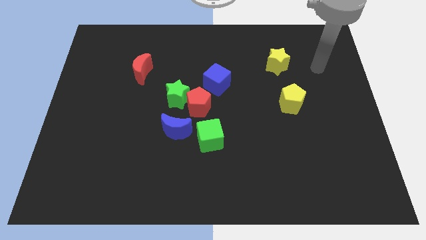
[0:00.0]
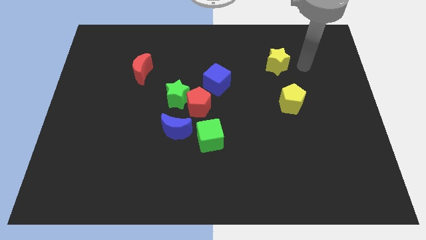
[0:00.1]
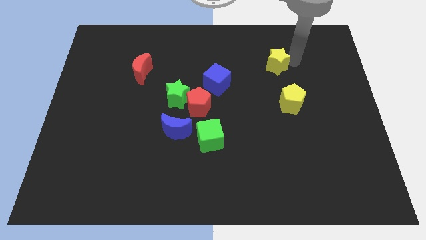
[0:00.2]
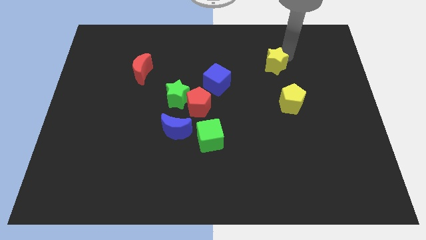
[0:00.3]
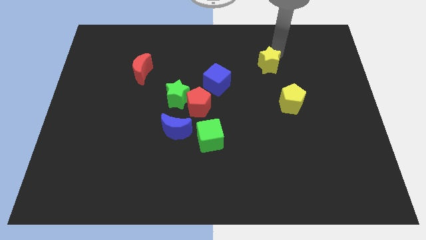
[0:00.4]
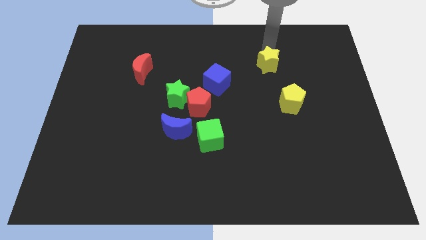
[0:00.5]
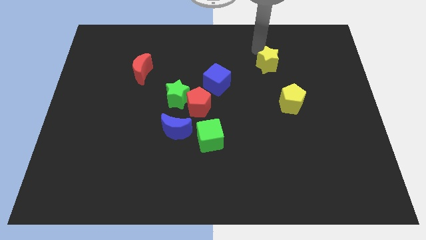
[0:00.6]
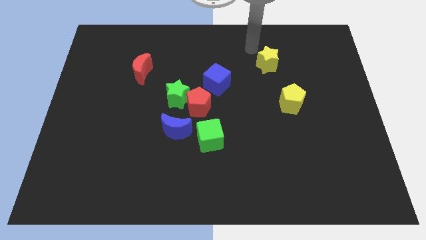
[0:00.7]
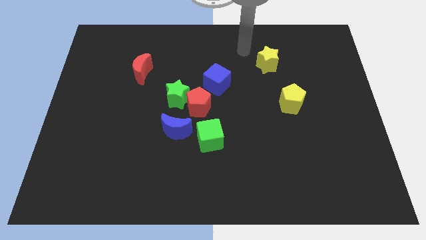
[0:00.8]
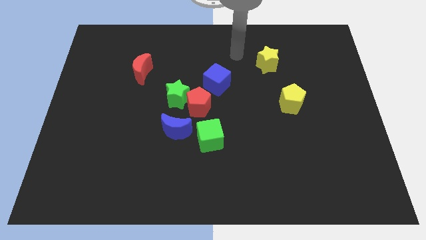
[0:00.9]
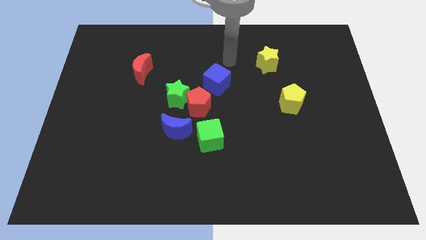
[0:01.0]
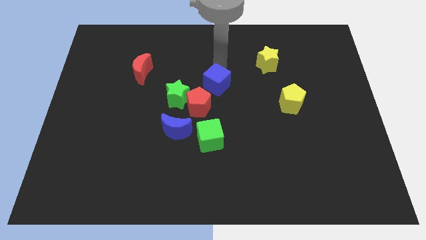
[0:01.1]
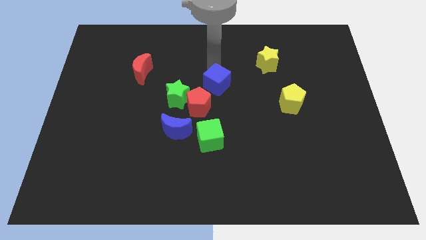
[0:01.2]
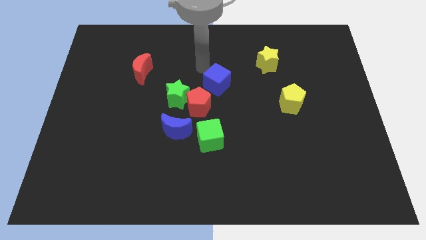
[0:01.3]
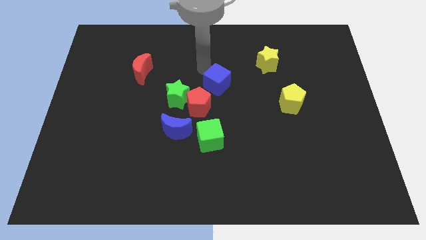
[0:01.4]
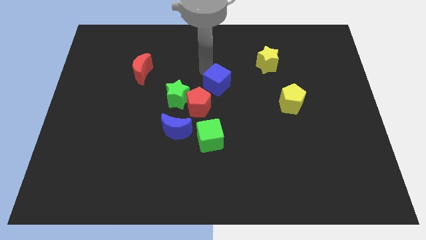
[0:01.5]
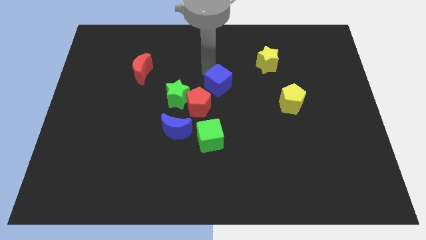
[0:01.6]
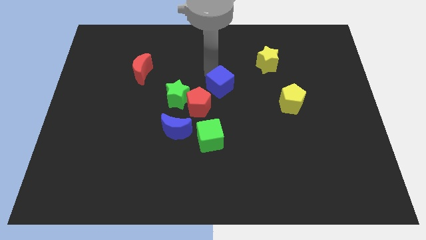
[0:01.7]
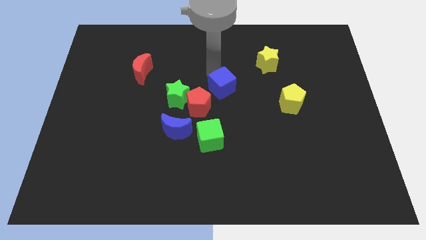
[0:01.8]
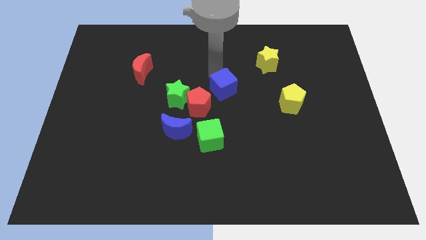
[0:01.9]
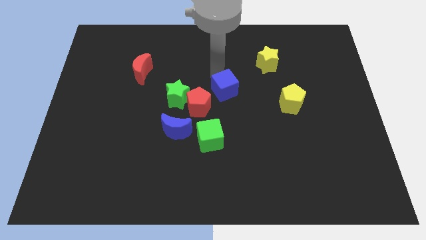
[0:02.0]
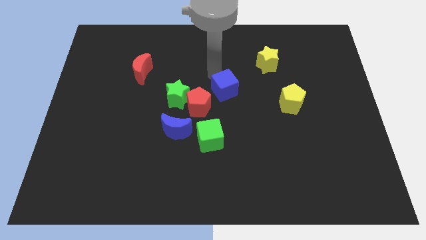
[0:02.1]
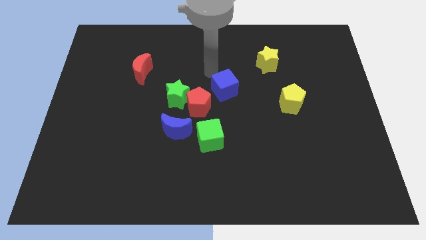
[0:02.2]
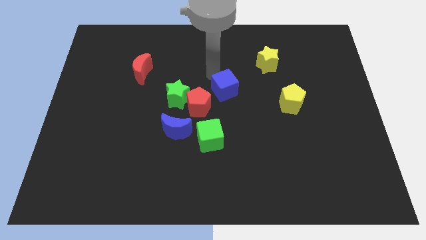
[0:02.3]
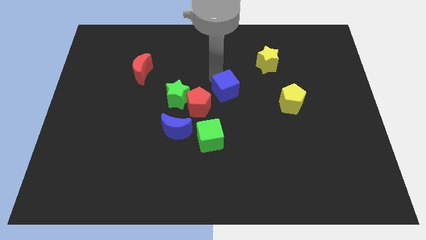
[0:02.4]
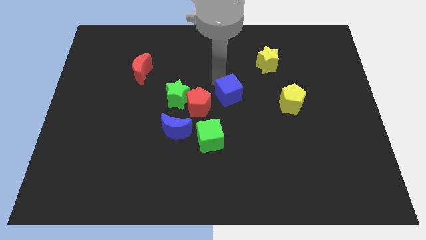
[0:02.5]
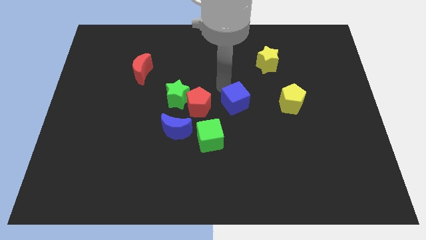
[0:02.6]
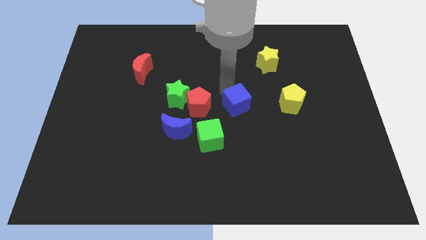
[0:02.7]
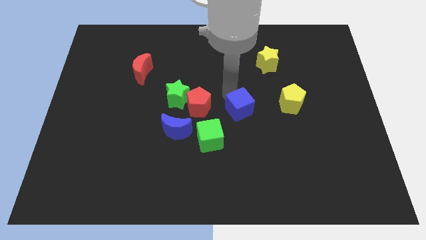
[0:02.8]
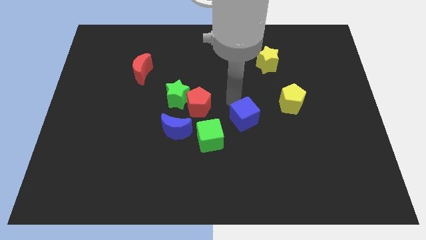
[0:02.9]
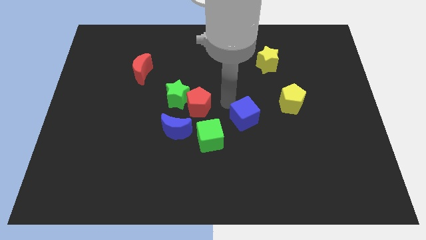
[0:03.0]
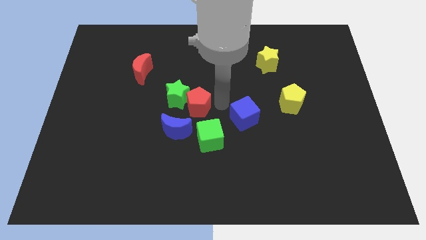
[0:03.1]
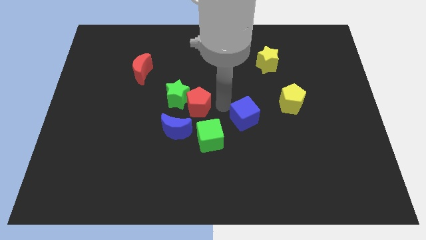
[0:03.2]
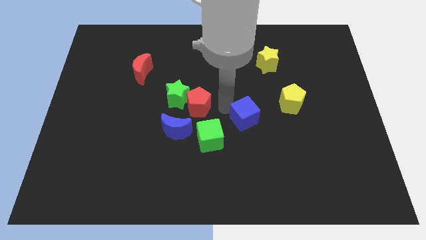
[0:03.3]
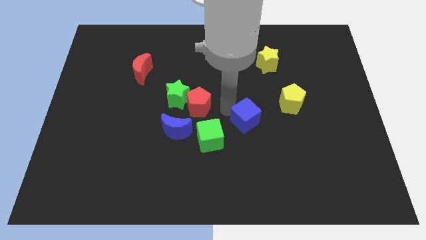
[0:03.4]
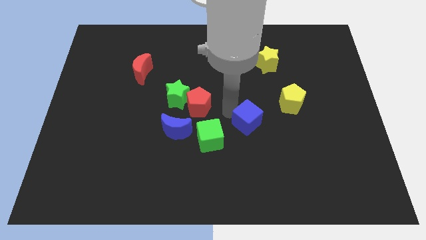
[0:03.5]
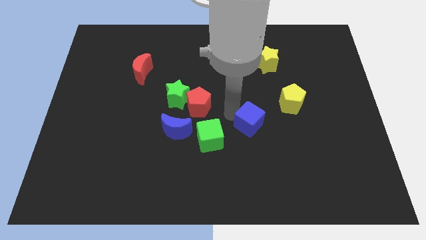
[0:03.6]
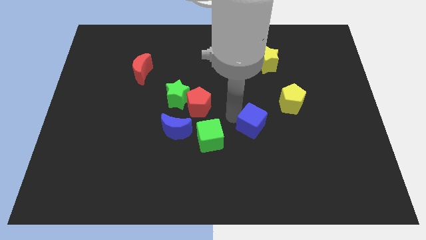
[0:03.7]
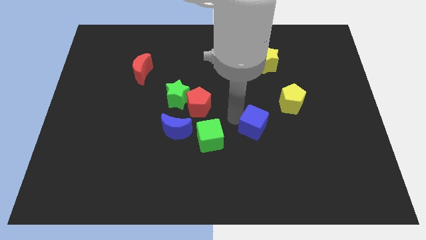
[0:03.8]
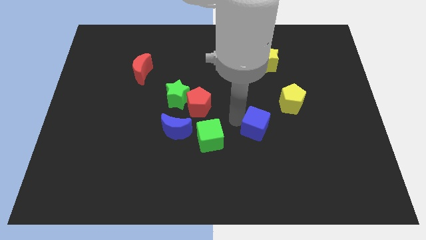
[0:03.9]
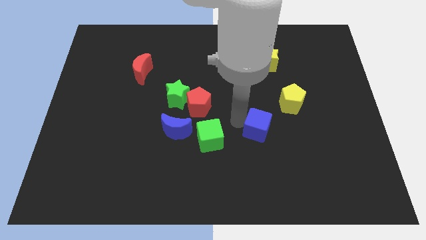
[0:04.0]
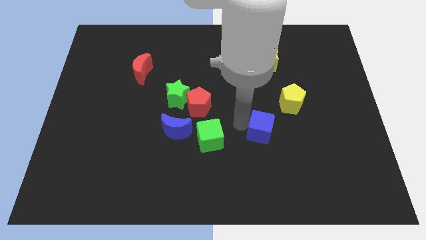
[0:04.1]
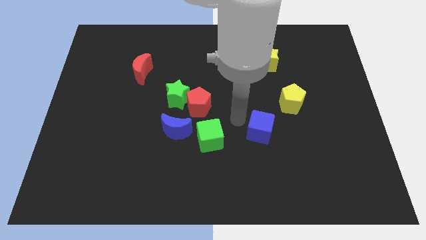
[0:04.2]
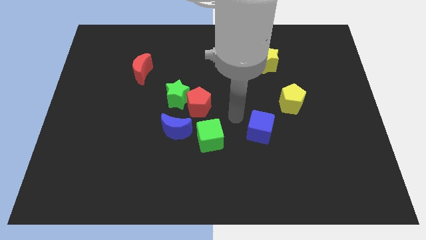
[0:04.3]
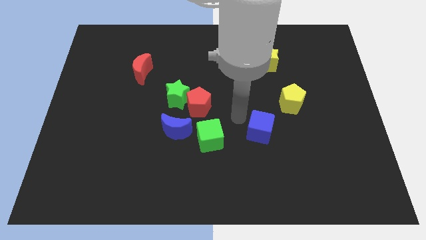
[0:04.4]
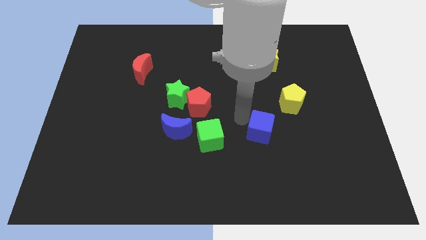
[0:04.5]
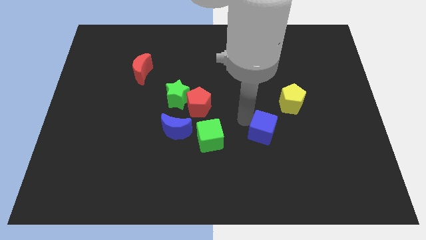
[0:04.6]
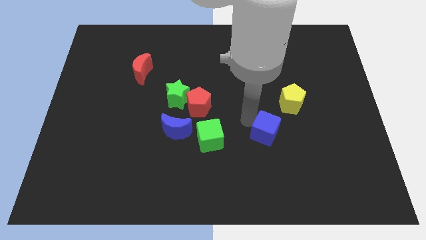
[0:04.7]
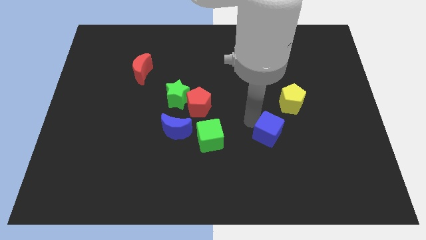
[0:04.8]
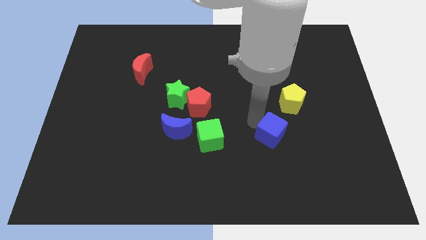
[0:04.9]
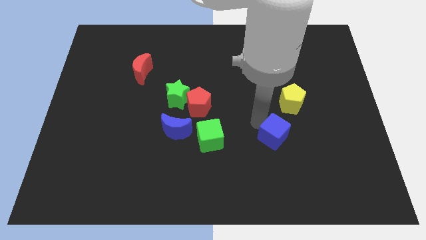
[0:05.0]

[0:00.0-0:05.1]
slide the blue cube diagonally downwards and to the right

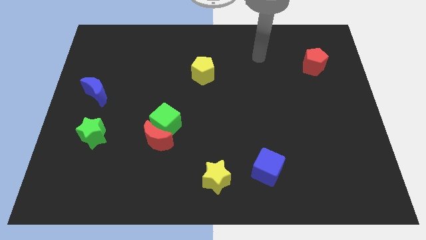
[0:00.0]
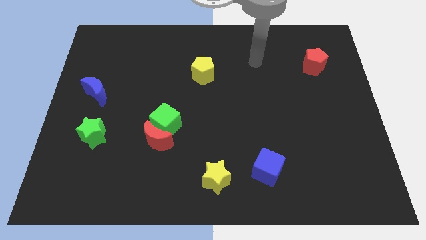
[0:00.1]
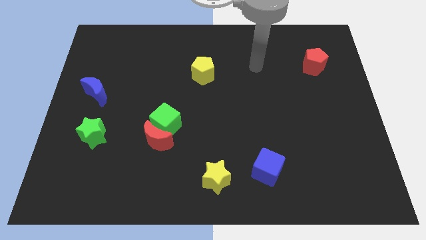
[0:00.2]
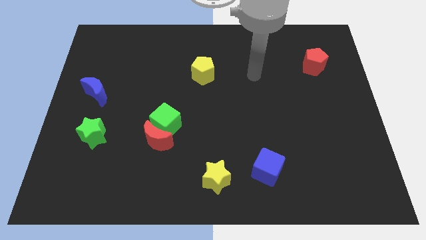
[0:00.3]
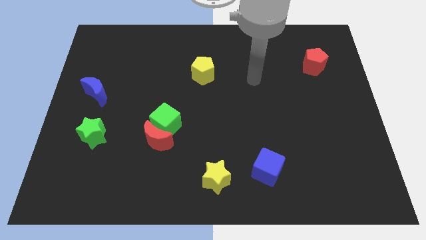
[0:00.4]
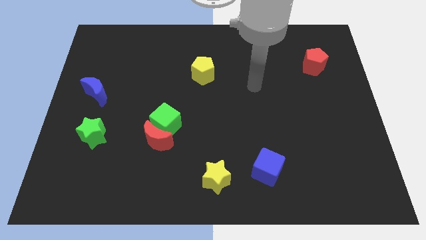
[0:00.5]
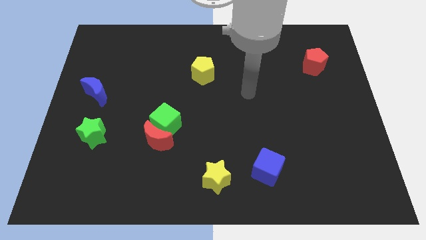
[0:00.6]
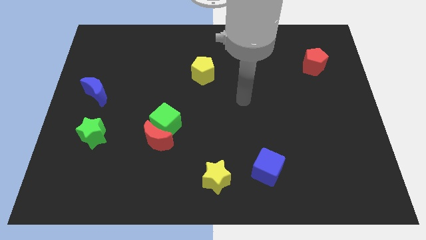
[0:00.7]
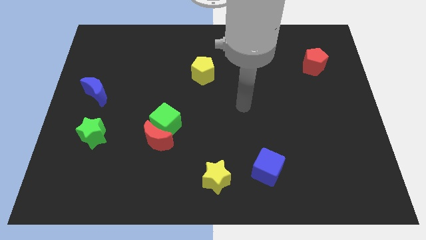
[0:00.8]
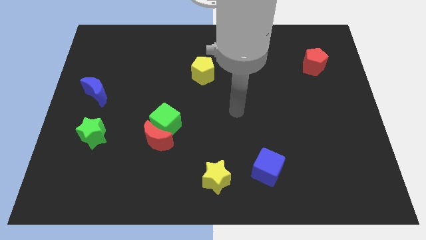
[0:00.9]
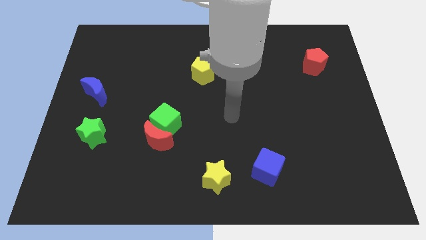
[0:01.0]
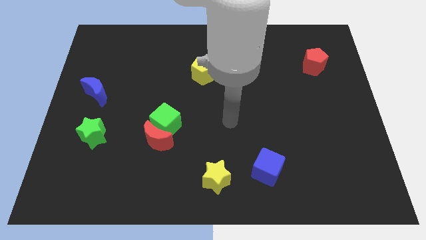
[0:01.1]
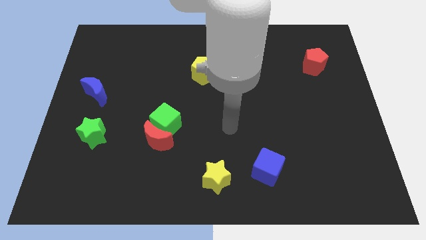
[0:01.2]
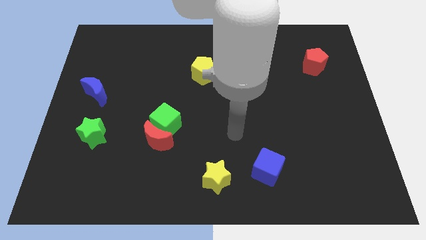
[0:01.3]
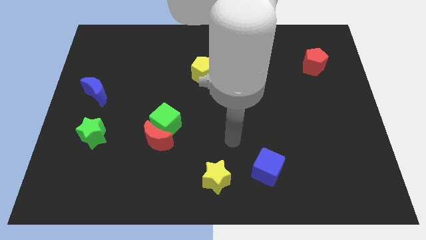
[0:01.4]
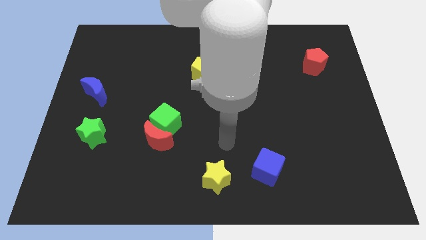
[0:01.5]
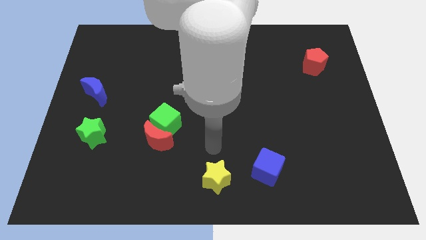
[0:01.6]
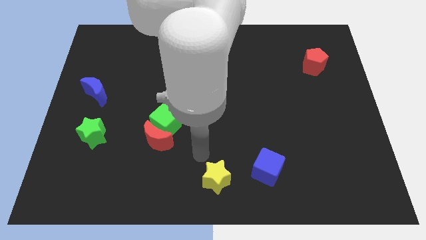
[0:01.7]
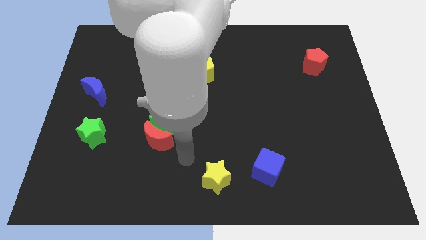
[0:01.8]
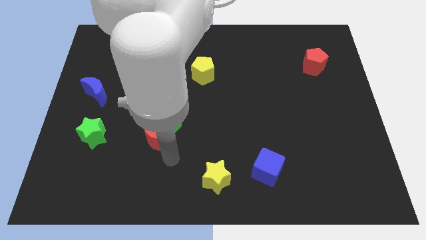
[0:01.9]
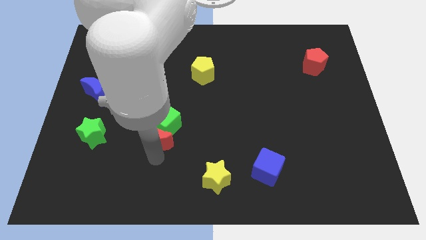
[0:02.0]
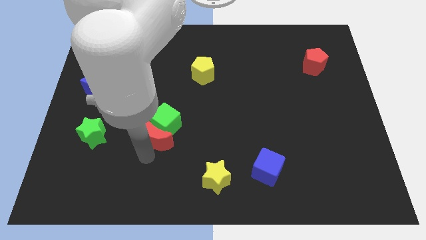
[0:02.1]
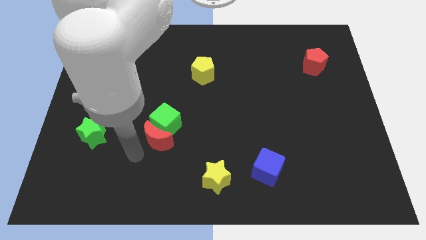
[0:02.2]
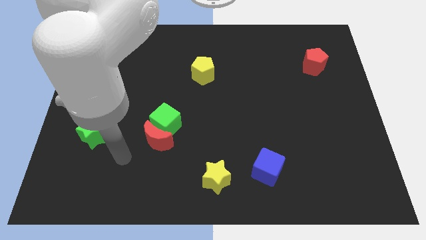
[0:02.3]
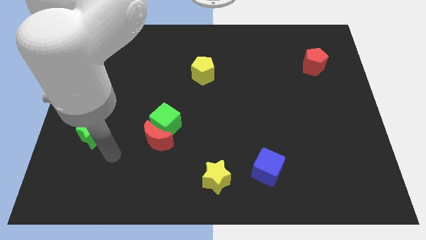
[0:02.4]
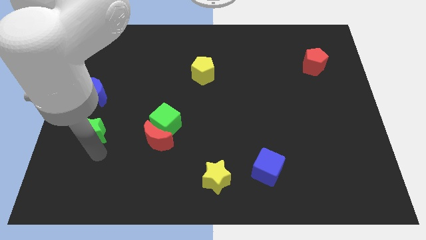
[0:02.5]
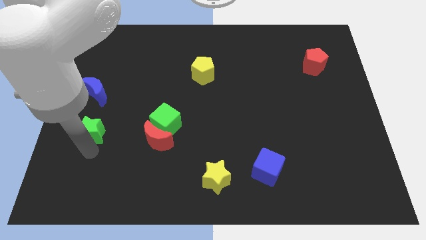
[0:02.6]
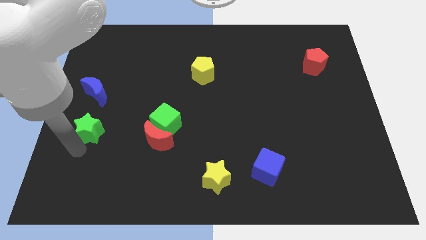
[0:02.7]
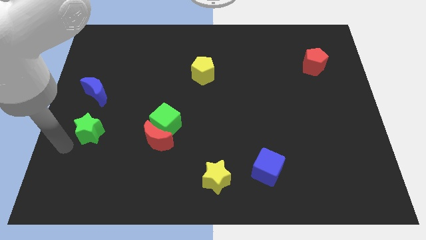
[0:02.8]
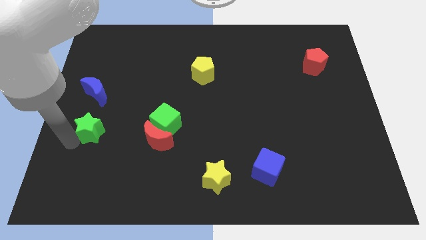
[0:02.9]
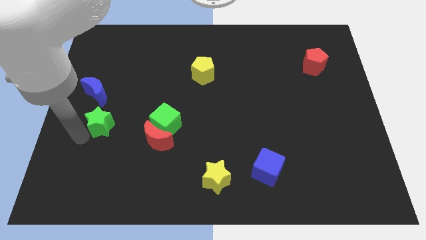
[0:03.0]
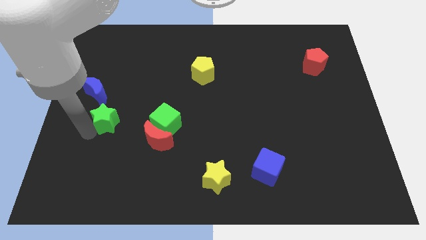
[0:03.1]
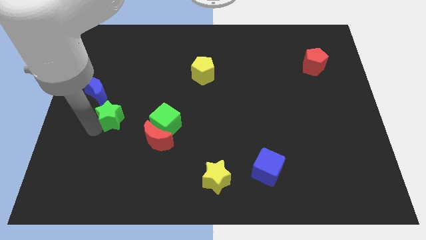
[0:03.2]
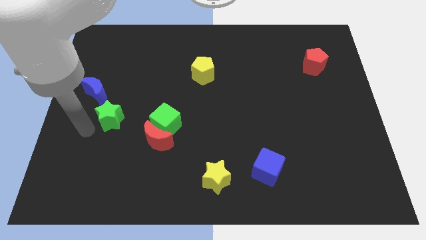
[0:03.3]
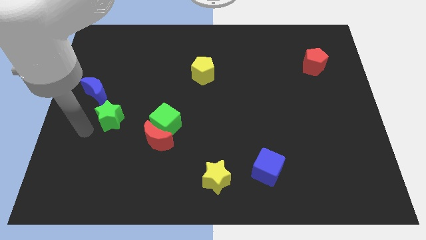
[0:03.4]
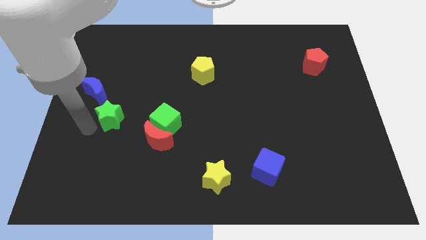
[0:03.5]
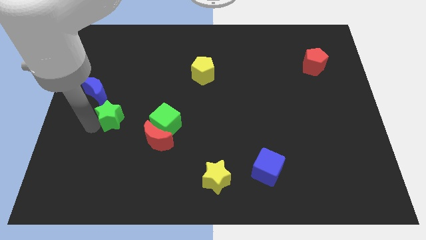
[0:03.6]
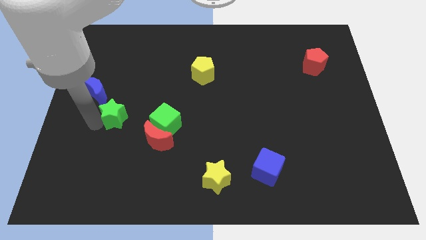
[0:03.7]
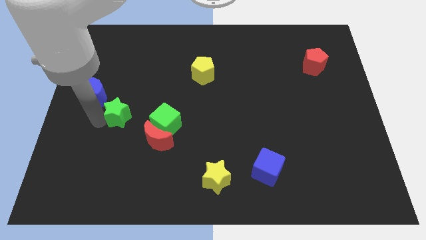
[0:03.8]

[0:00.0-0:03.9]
slightly slide the green star upwards and then right
